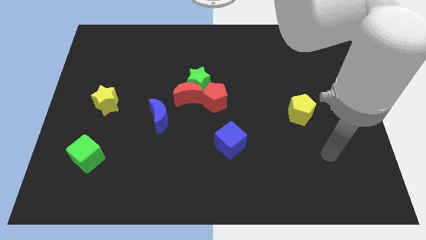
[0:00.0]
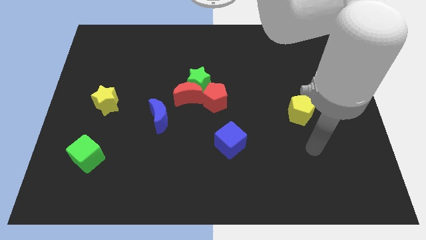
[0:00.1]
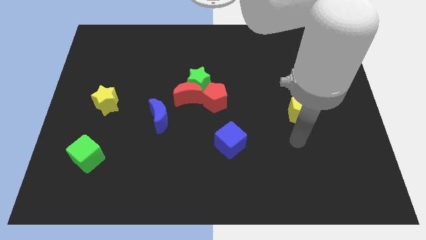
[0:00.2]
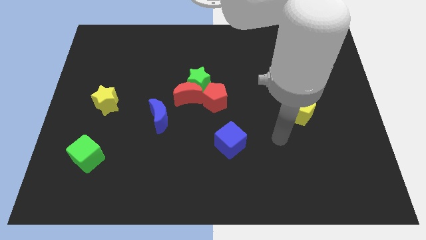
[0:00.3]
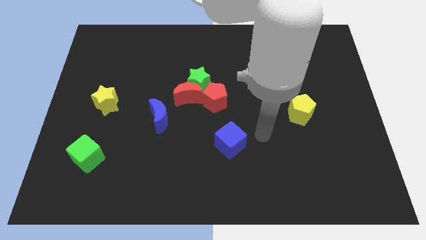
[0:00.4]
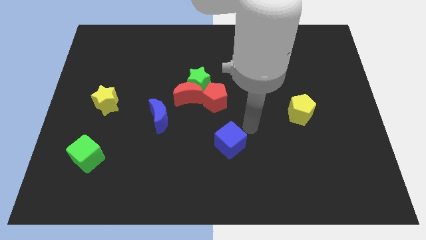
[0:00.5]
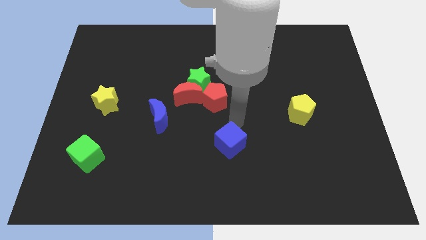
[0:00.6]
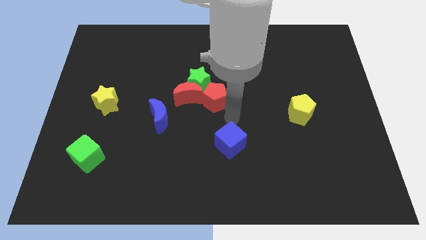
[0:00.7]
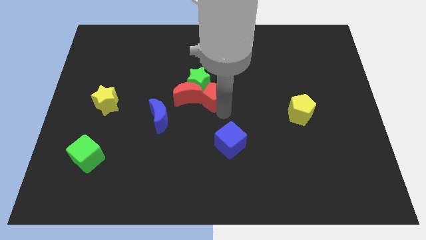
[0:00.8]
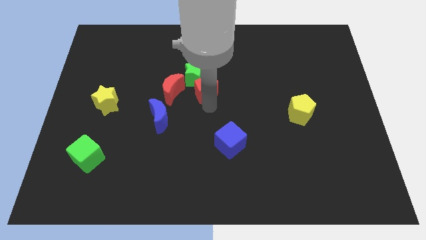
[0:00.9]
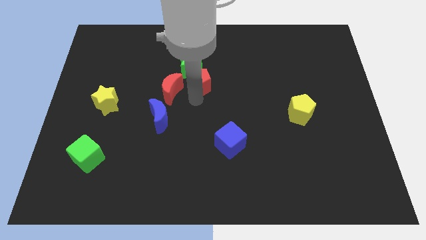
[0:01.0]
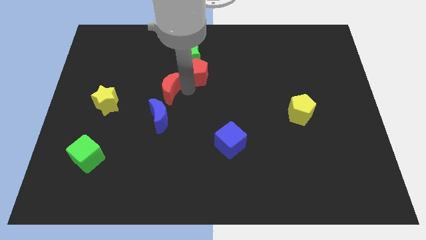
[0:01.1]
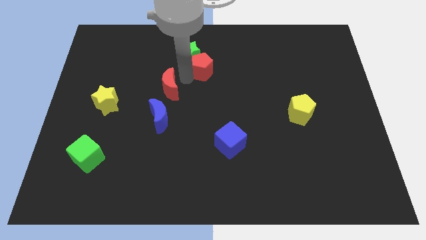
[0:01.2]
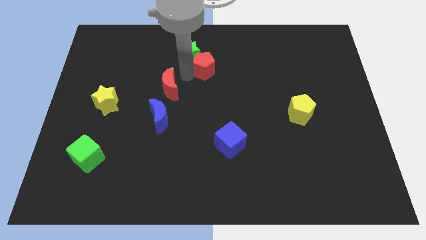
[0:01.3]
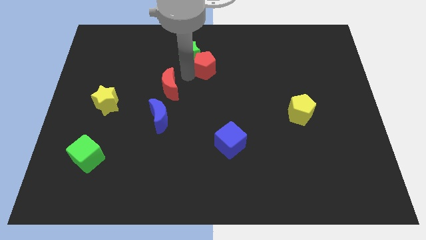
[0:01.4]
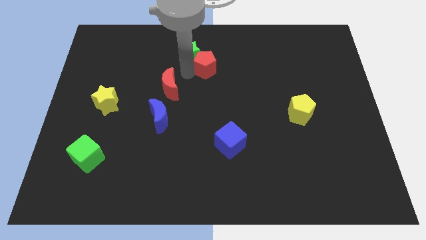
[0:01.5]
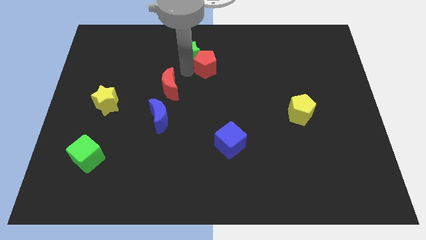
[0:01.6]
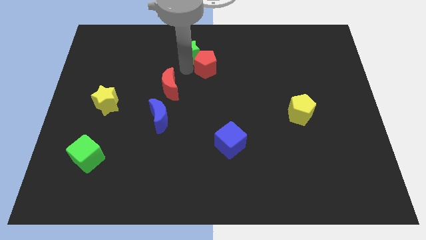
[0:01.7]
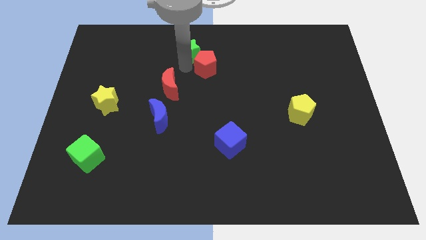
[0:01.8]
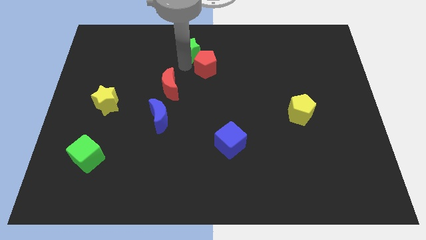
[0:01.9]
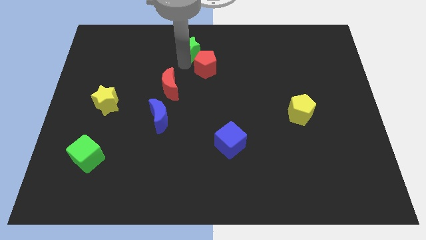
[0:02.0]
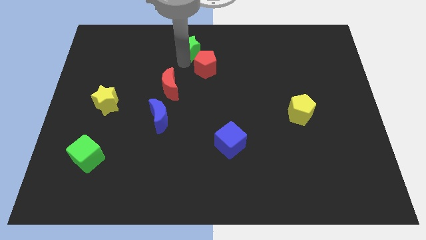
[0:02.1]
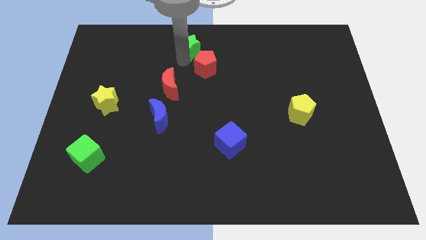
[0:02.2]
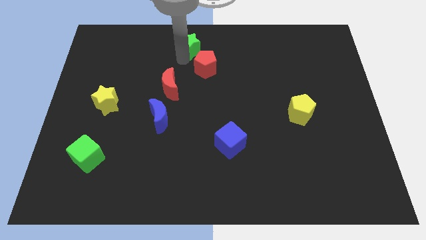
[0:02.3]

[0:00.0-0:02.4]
pull the green star apart from the red moon and red pentagon

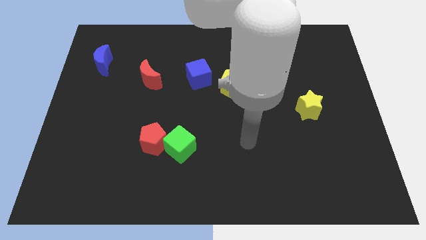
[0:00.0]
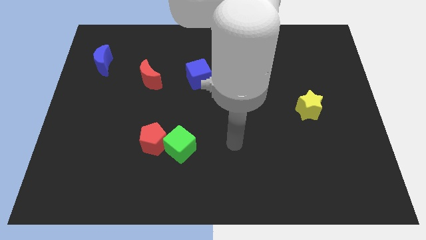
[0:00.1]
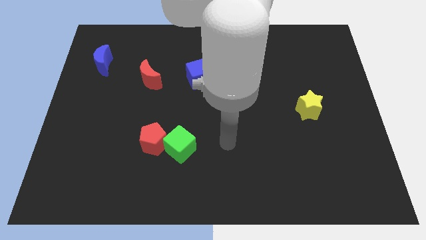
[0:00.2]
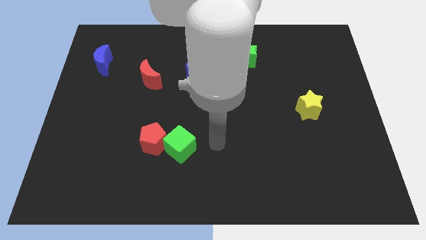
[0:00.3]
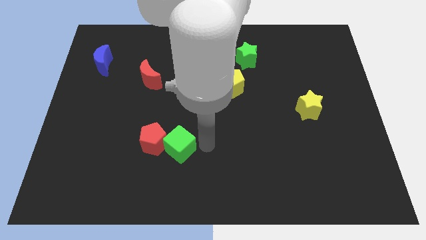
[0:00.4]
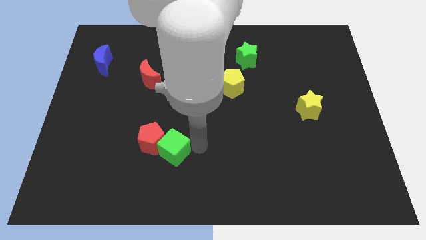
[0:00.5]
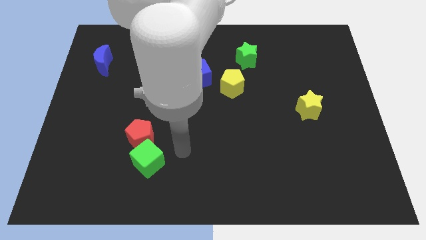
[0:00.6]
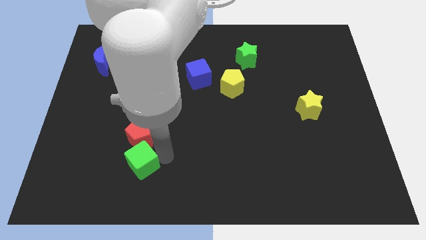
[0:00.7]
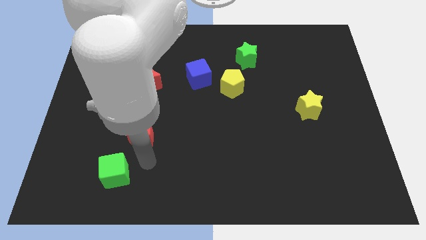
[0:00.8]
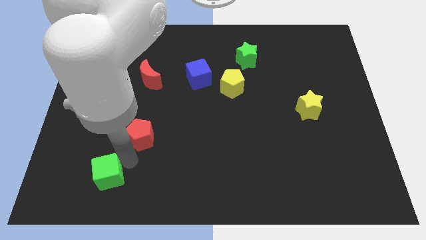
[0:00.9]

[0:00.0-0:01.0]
separate the red pentagon from the green cube

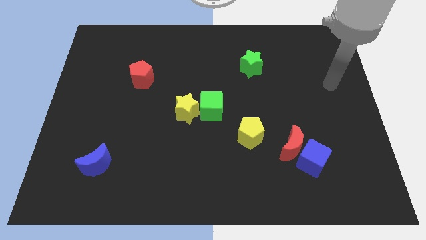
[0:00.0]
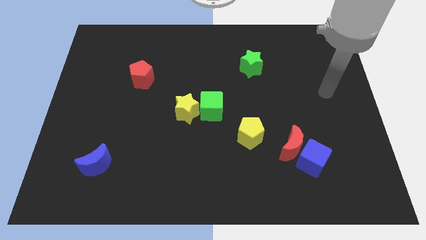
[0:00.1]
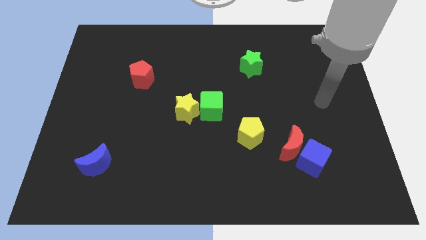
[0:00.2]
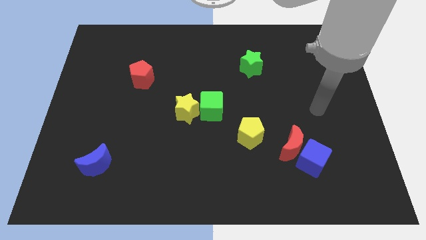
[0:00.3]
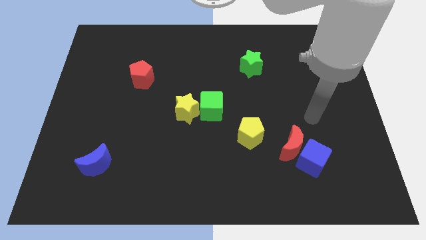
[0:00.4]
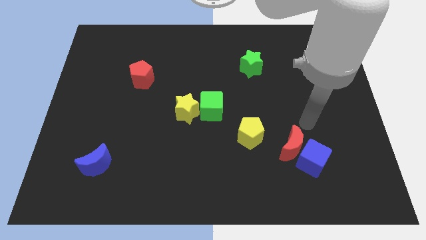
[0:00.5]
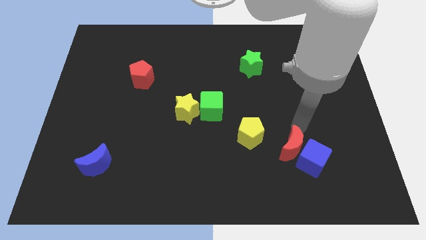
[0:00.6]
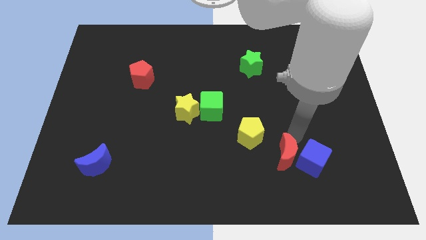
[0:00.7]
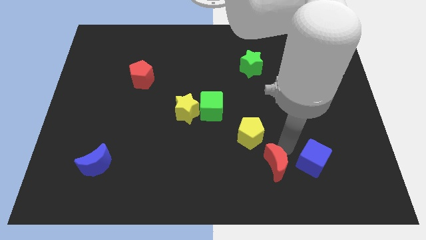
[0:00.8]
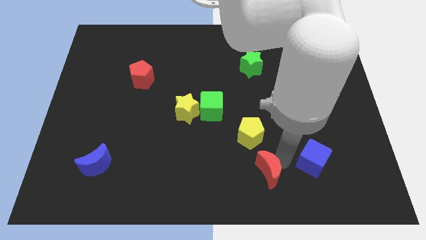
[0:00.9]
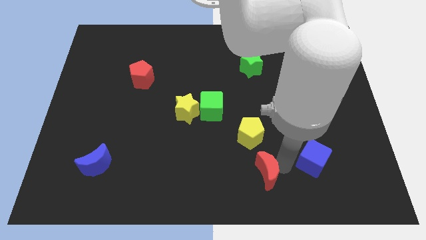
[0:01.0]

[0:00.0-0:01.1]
separate the blue cube from the red moon

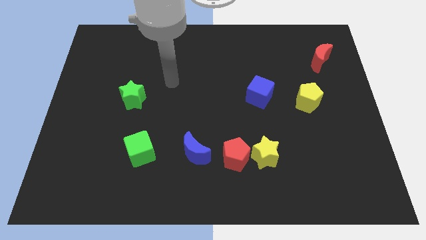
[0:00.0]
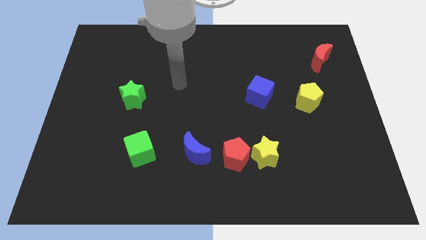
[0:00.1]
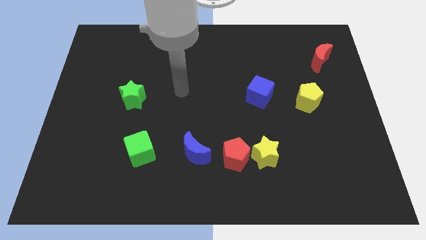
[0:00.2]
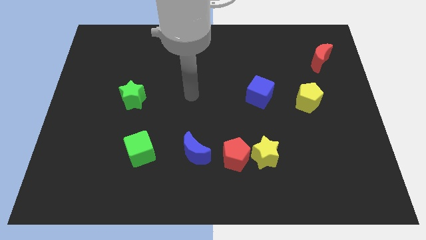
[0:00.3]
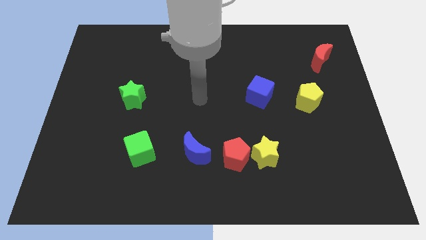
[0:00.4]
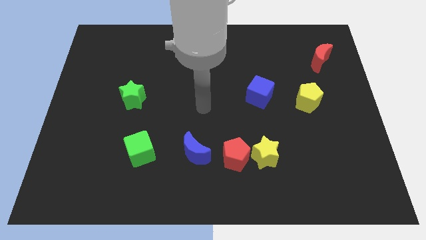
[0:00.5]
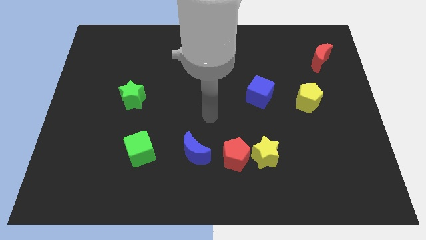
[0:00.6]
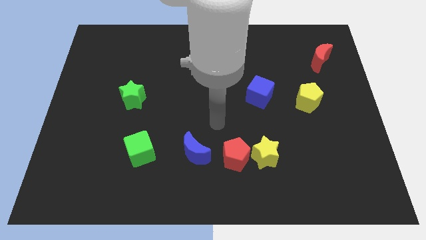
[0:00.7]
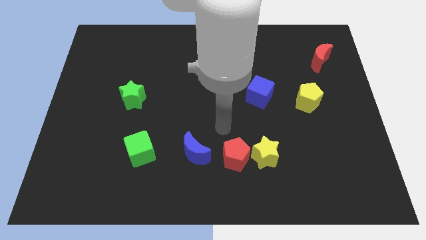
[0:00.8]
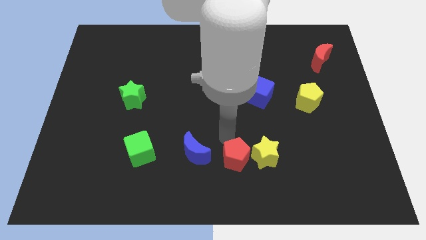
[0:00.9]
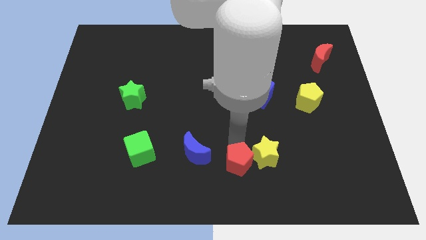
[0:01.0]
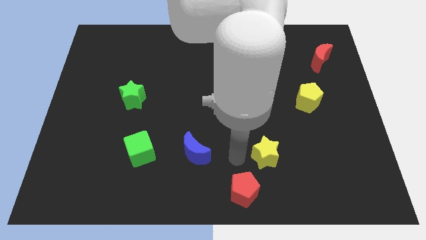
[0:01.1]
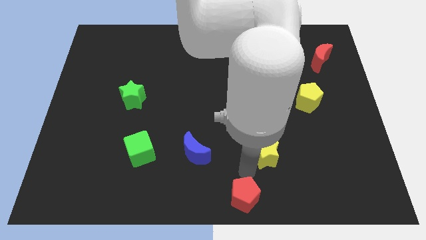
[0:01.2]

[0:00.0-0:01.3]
pull the yellow star apart from the red pentagon

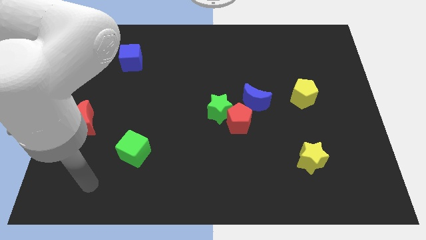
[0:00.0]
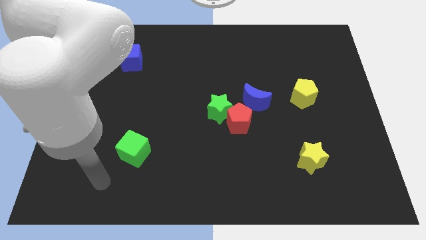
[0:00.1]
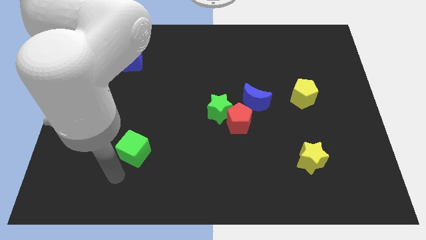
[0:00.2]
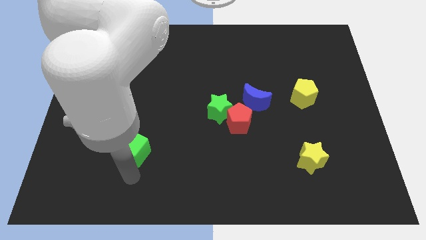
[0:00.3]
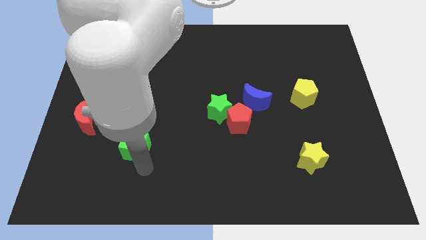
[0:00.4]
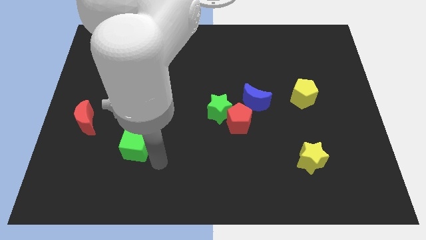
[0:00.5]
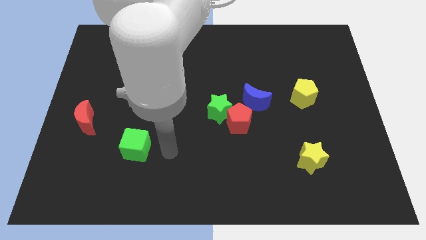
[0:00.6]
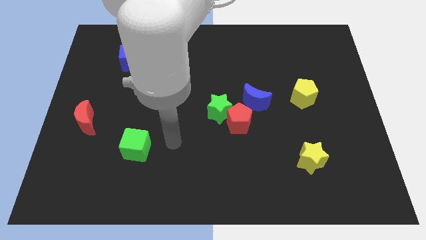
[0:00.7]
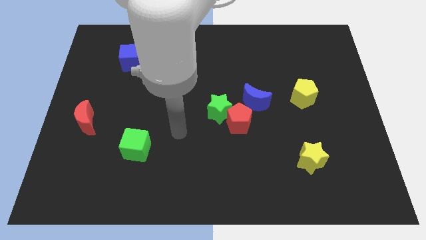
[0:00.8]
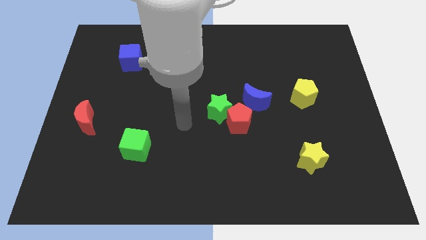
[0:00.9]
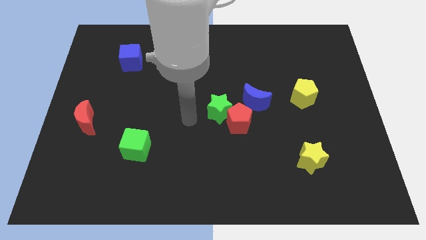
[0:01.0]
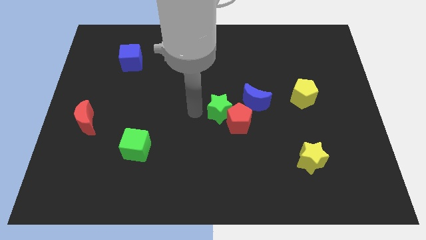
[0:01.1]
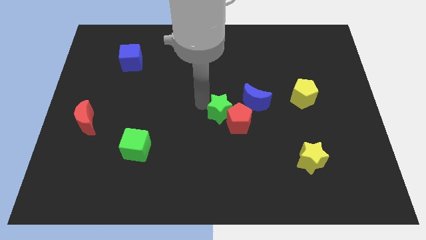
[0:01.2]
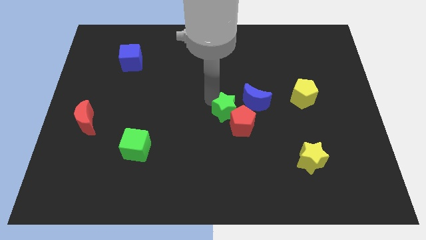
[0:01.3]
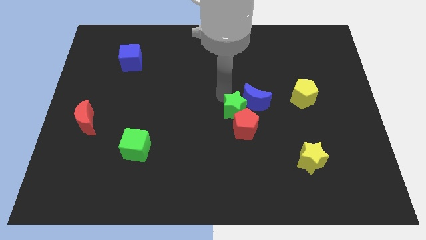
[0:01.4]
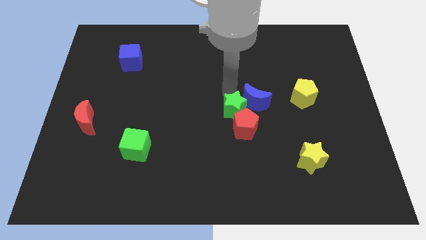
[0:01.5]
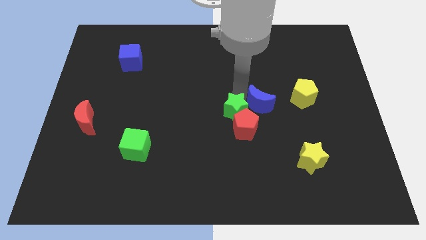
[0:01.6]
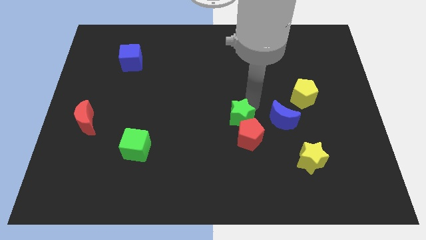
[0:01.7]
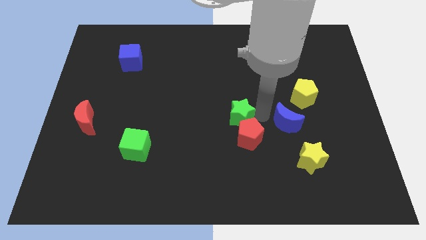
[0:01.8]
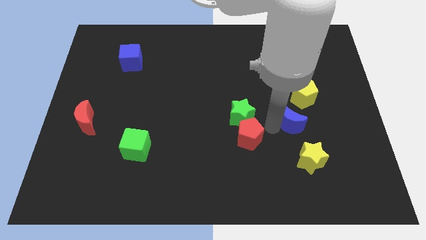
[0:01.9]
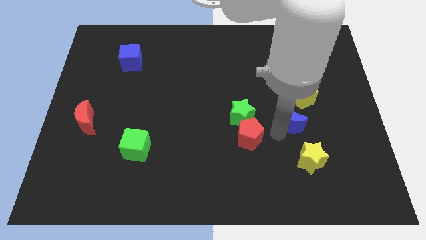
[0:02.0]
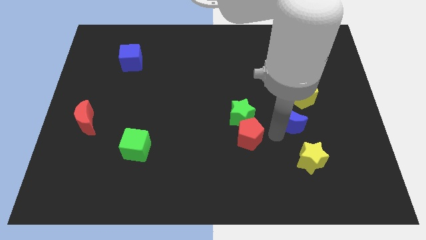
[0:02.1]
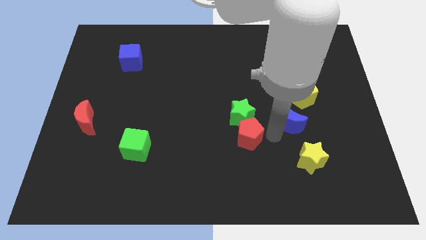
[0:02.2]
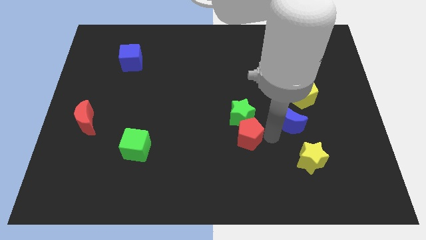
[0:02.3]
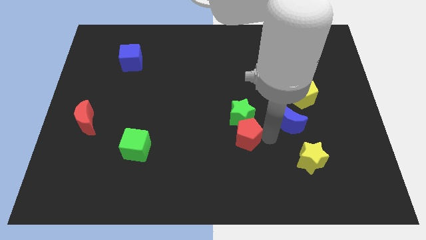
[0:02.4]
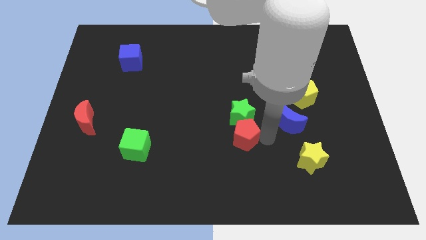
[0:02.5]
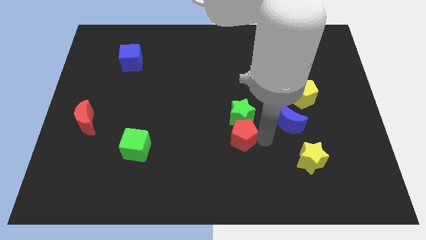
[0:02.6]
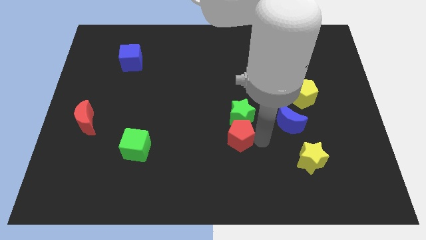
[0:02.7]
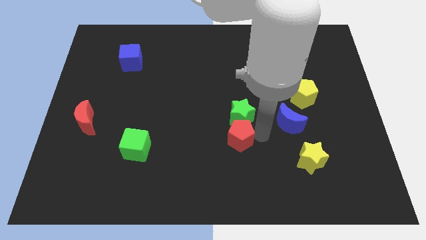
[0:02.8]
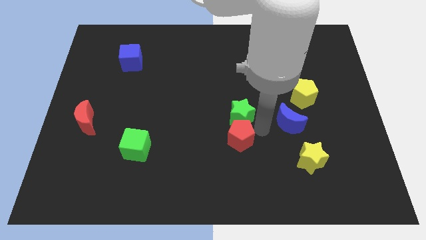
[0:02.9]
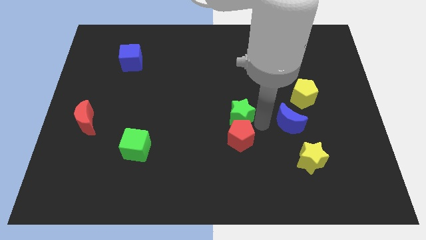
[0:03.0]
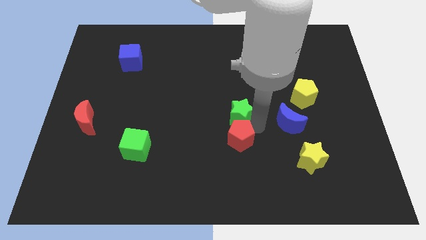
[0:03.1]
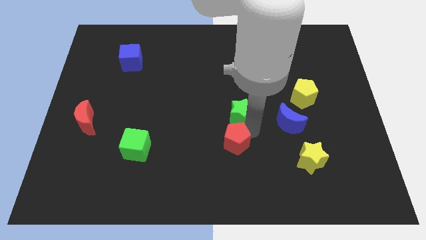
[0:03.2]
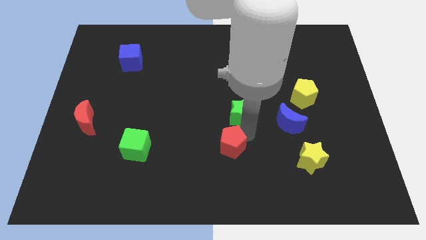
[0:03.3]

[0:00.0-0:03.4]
move the red pentagon away from the green star and blue moon
